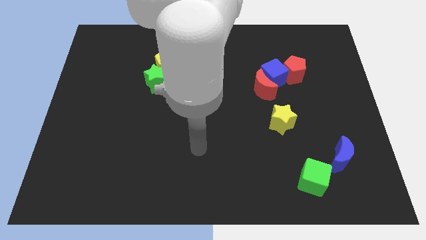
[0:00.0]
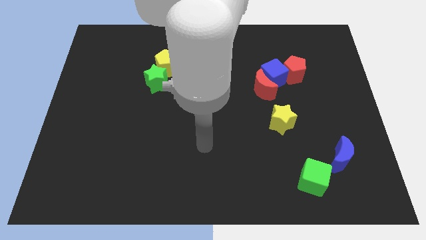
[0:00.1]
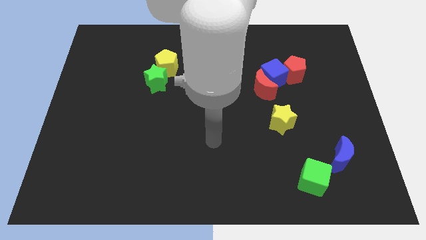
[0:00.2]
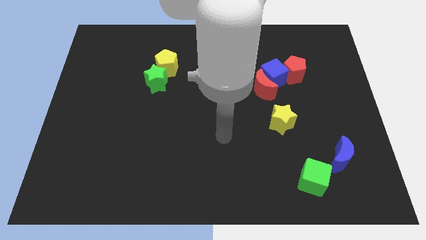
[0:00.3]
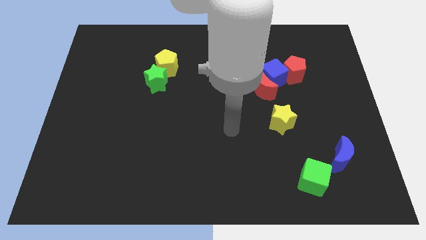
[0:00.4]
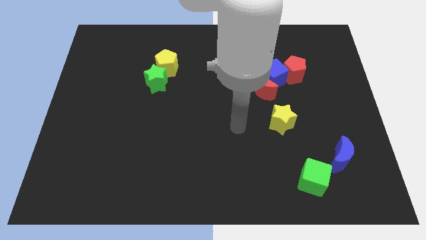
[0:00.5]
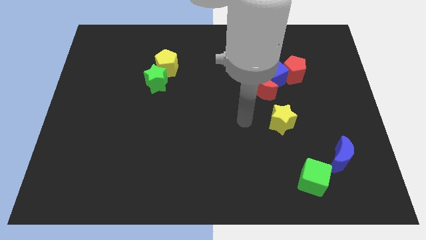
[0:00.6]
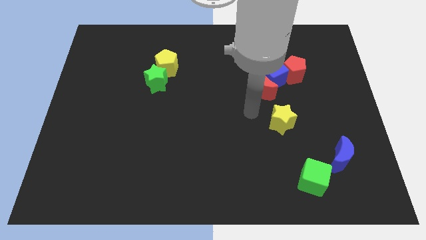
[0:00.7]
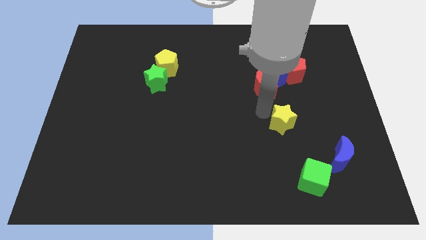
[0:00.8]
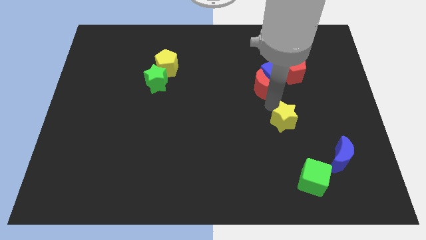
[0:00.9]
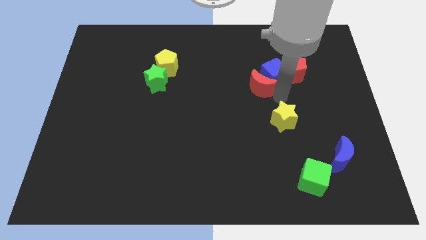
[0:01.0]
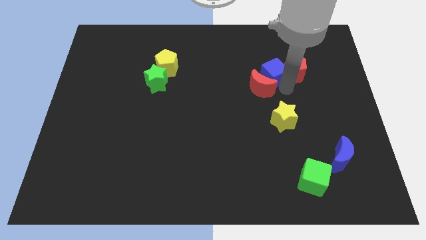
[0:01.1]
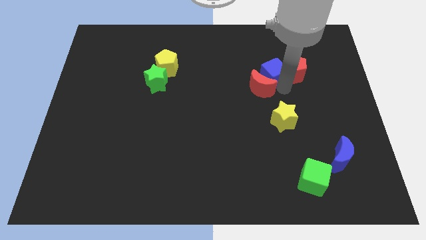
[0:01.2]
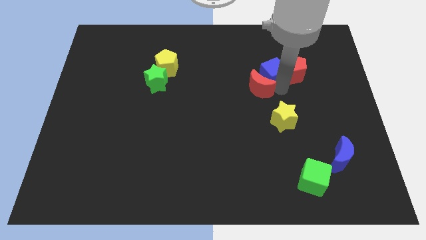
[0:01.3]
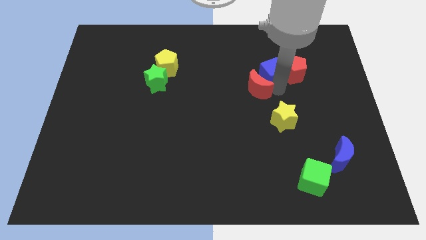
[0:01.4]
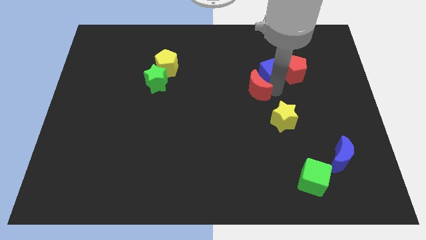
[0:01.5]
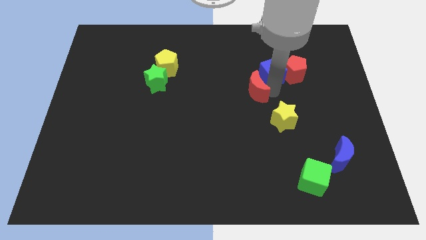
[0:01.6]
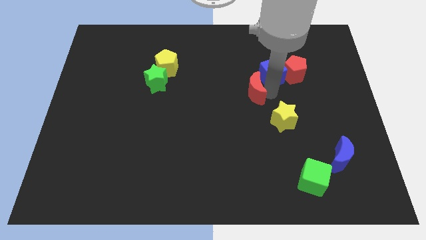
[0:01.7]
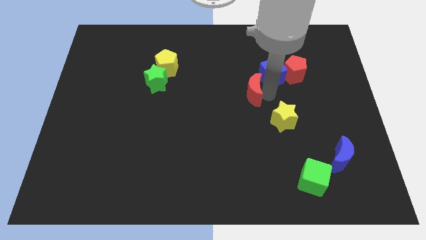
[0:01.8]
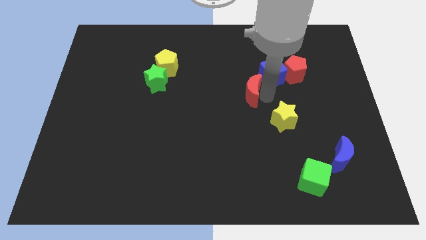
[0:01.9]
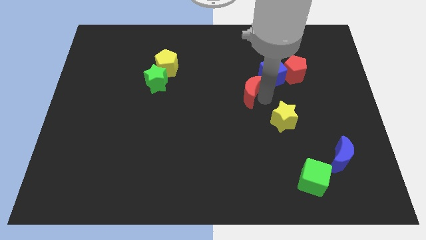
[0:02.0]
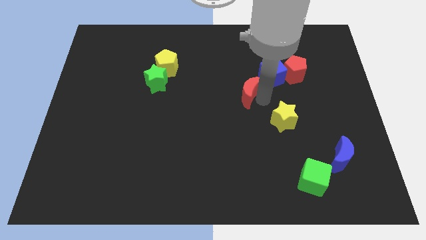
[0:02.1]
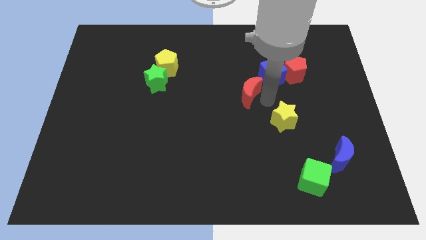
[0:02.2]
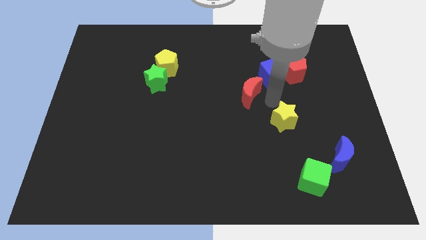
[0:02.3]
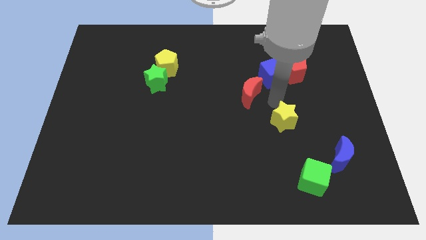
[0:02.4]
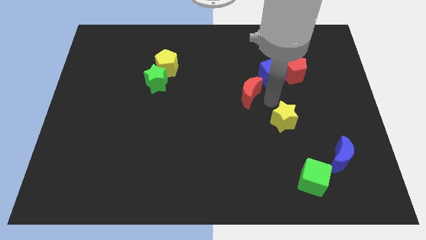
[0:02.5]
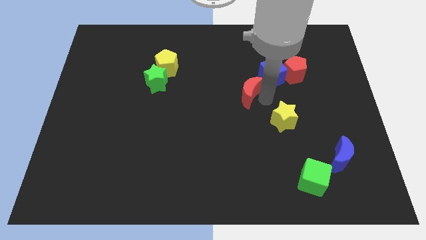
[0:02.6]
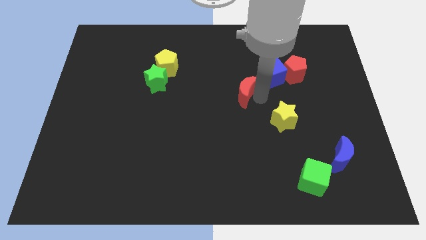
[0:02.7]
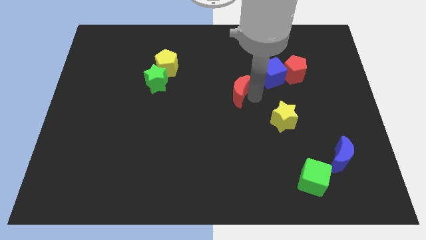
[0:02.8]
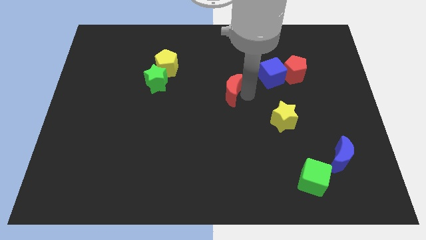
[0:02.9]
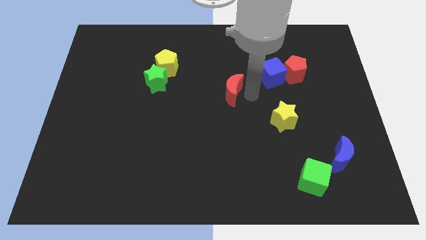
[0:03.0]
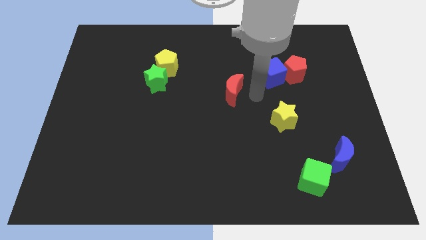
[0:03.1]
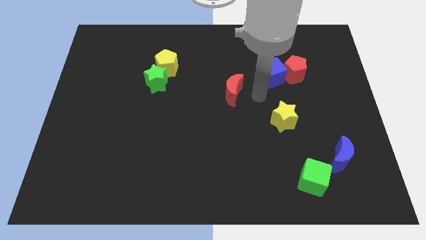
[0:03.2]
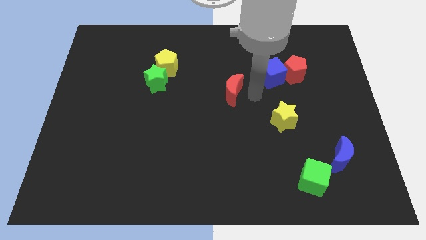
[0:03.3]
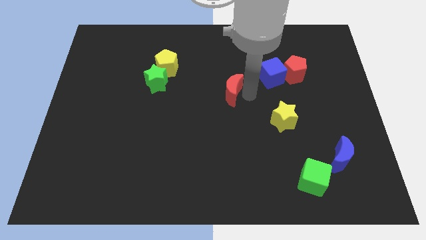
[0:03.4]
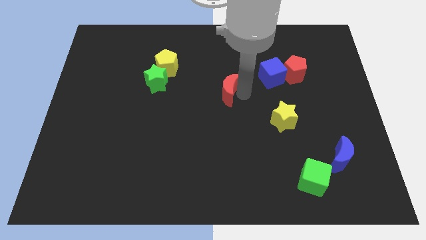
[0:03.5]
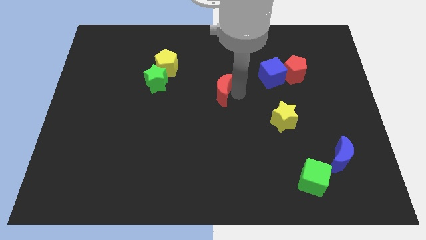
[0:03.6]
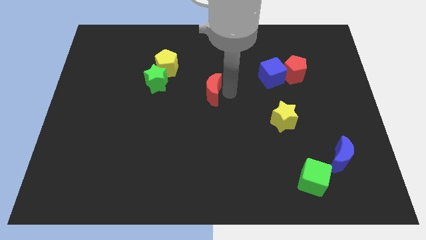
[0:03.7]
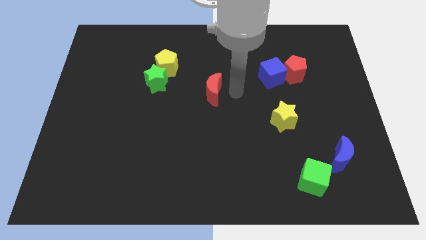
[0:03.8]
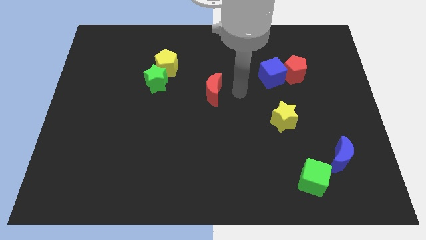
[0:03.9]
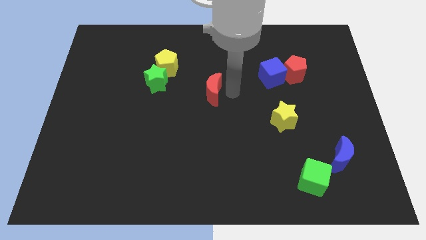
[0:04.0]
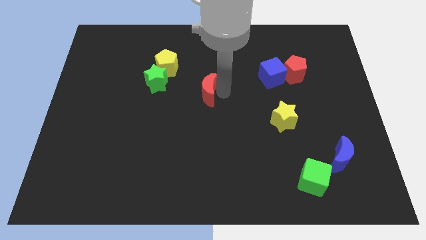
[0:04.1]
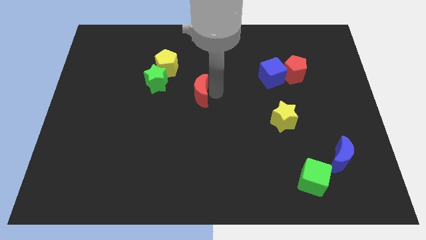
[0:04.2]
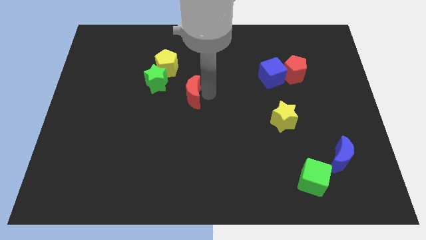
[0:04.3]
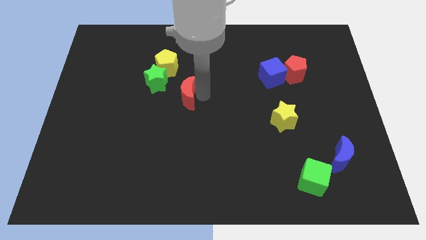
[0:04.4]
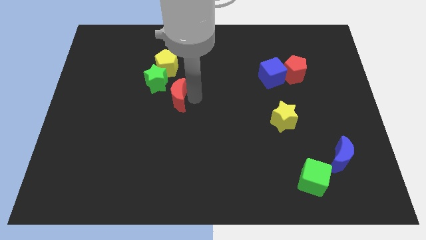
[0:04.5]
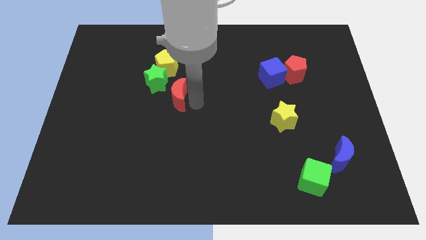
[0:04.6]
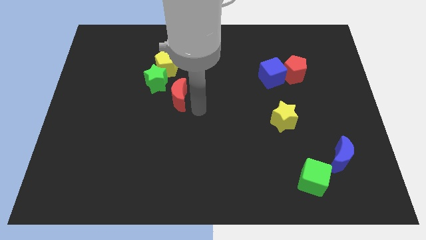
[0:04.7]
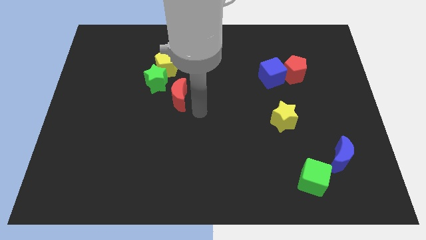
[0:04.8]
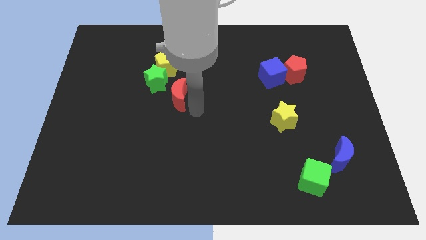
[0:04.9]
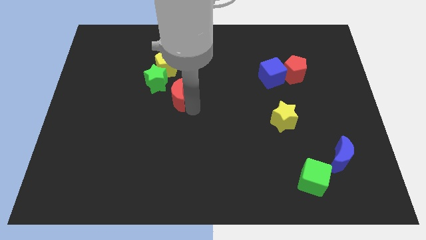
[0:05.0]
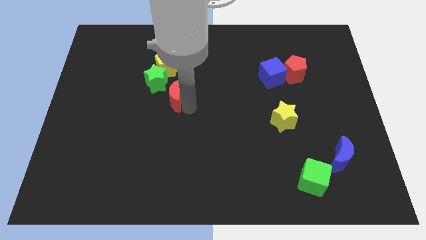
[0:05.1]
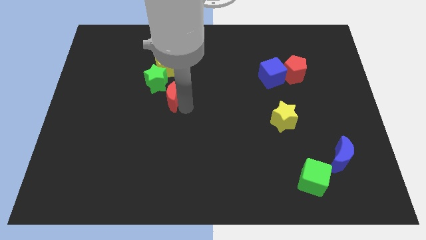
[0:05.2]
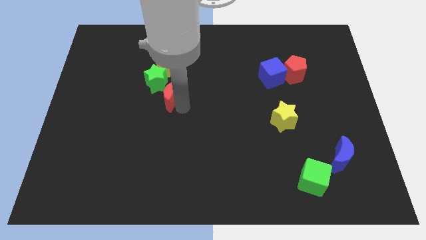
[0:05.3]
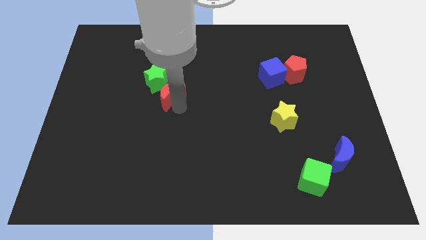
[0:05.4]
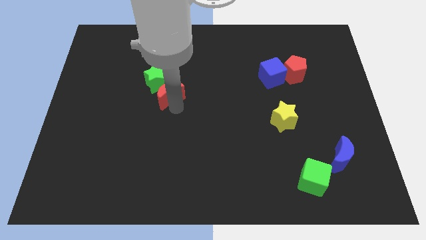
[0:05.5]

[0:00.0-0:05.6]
push the red moon close to the green star

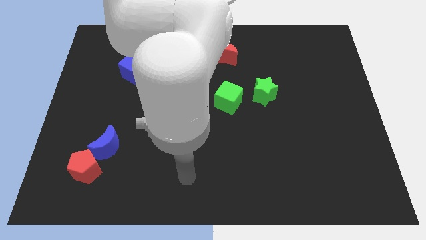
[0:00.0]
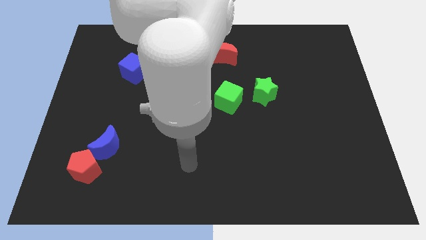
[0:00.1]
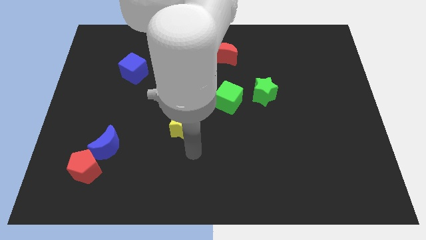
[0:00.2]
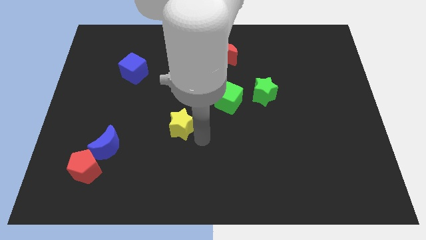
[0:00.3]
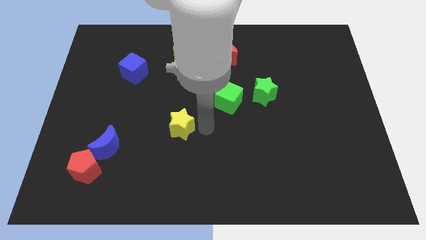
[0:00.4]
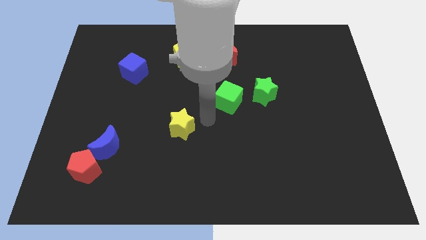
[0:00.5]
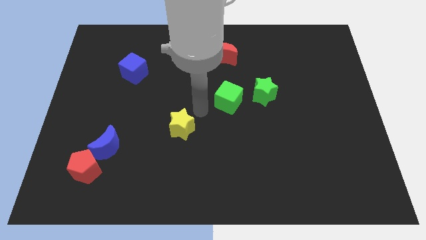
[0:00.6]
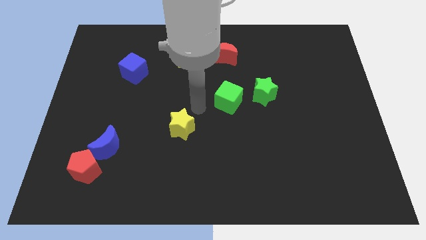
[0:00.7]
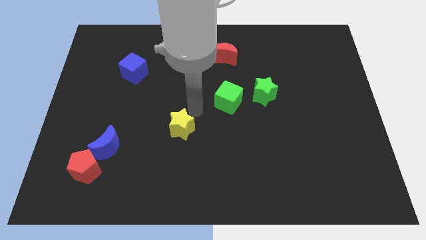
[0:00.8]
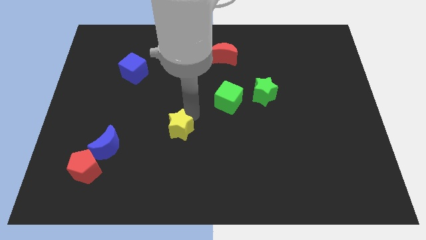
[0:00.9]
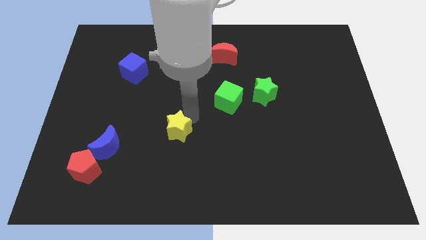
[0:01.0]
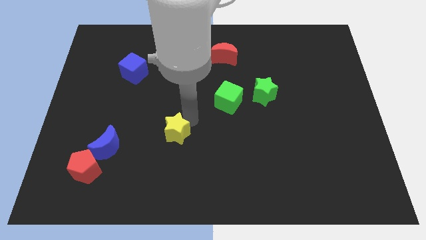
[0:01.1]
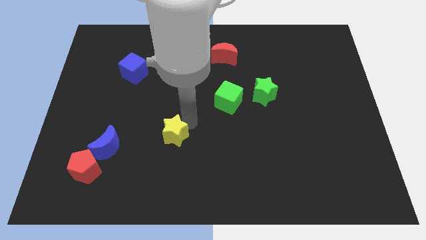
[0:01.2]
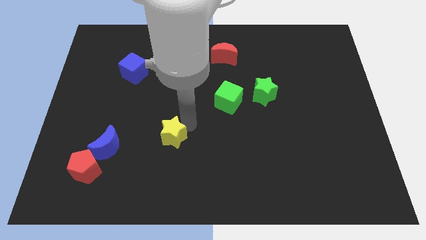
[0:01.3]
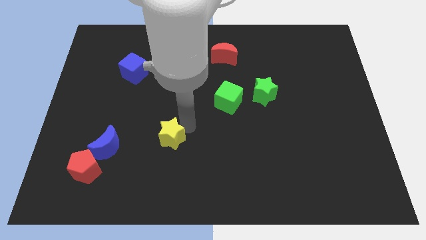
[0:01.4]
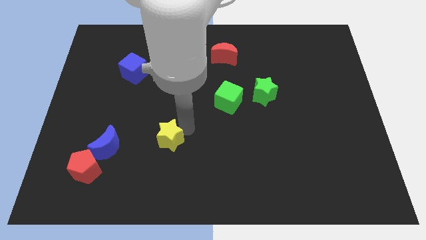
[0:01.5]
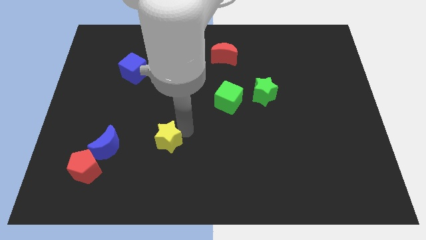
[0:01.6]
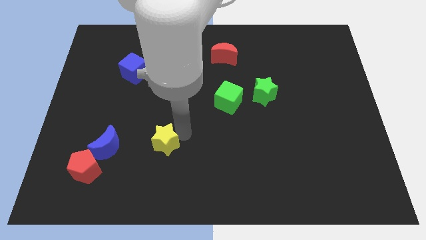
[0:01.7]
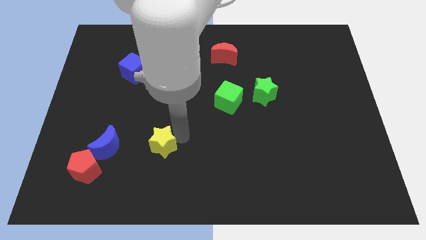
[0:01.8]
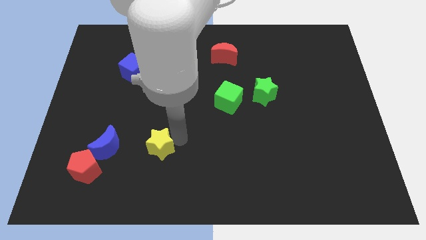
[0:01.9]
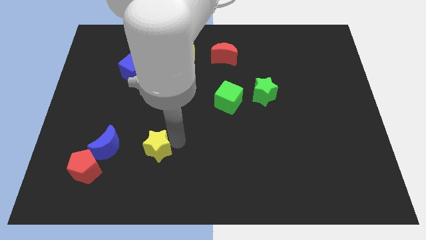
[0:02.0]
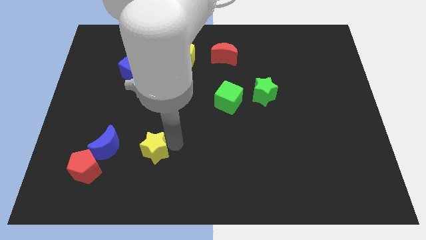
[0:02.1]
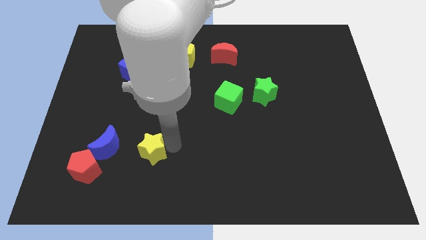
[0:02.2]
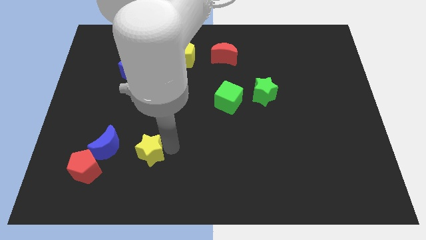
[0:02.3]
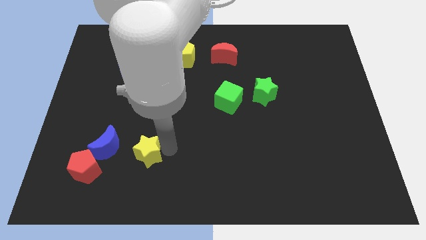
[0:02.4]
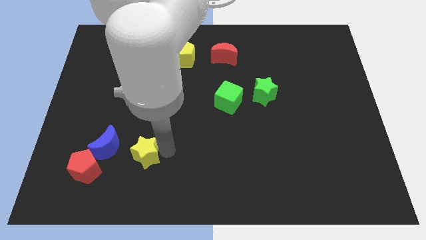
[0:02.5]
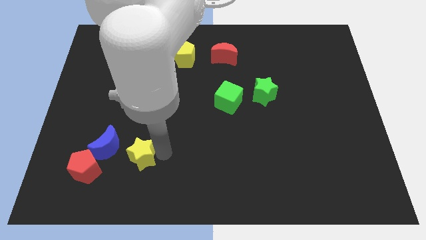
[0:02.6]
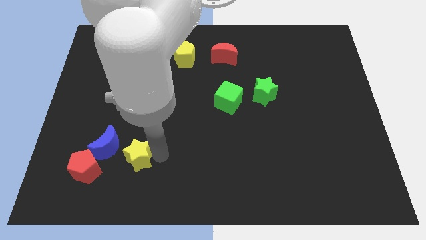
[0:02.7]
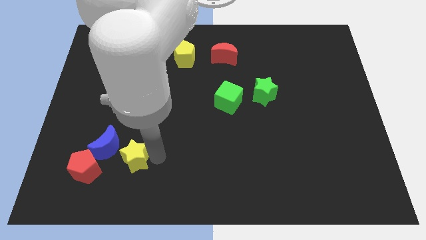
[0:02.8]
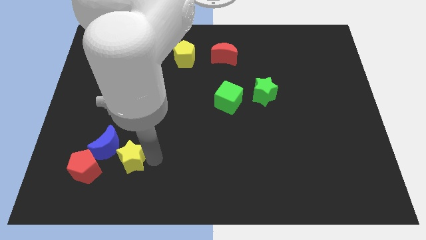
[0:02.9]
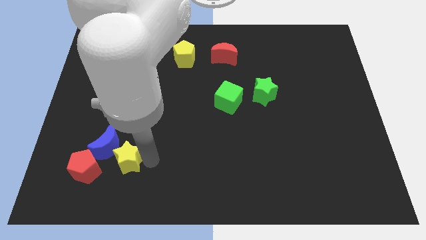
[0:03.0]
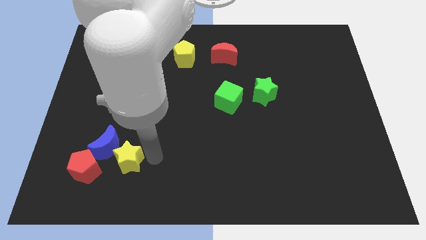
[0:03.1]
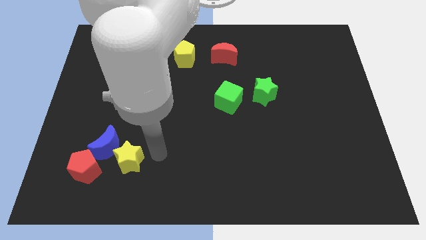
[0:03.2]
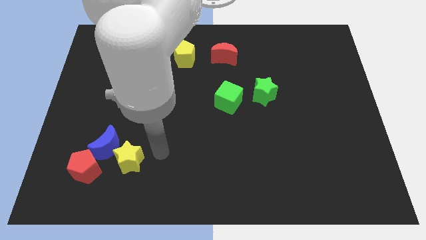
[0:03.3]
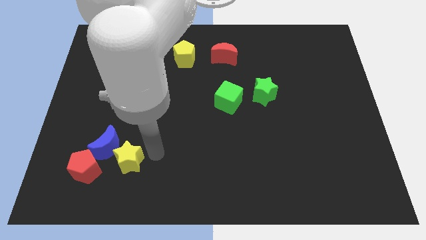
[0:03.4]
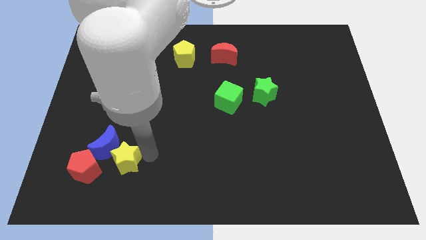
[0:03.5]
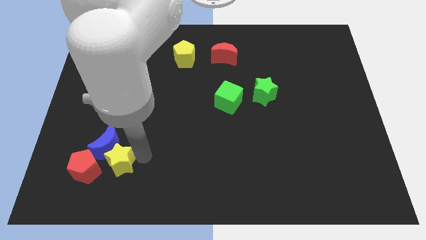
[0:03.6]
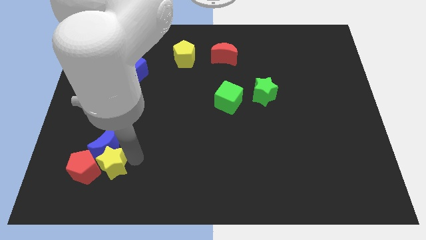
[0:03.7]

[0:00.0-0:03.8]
slide the yellow star to the red pentagon
